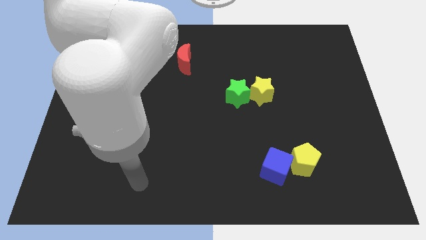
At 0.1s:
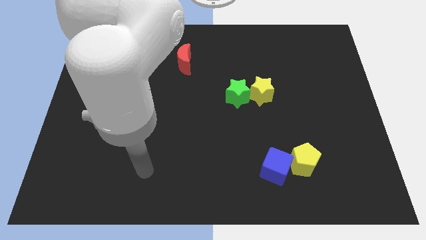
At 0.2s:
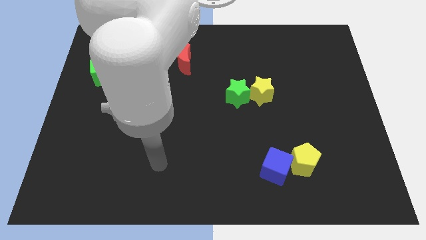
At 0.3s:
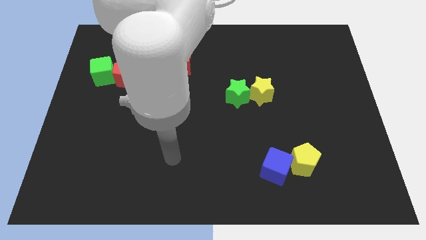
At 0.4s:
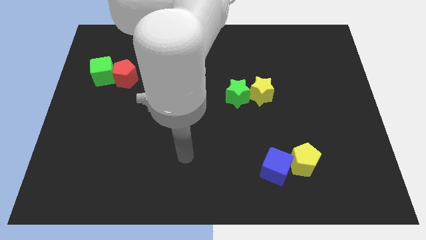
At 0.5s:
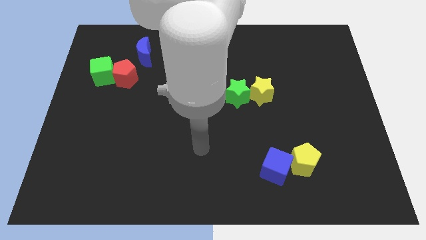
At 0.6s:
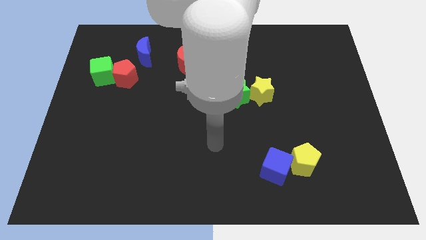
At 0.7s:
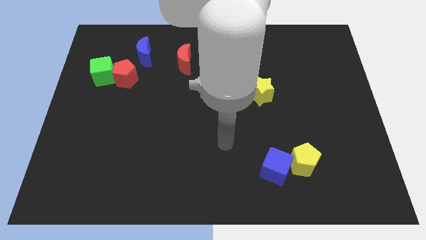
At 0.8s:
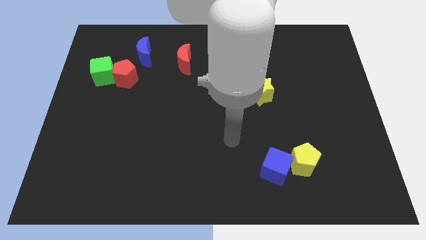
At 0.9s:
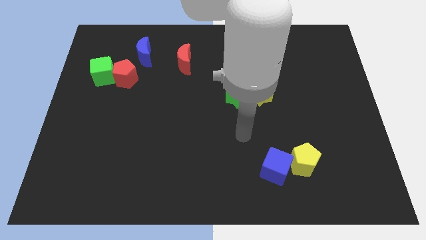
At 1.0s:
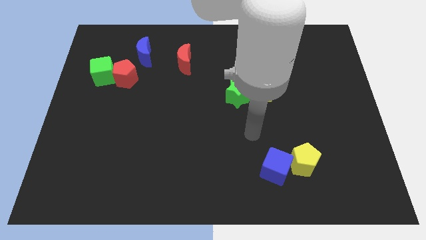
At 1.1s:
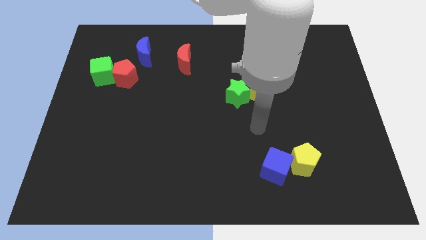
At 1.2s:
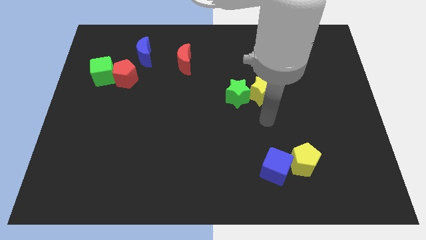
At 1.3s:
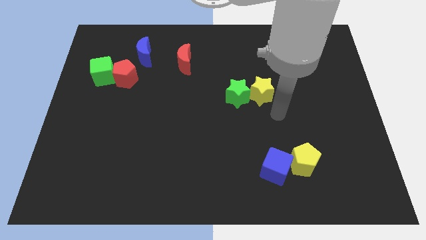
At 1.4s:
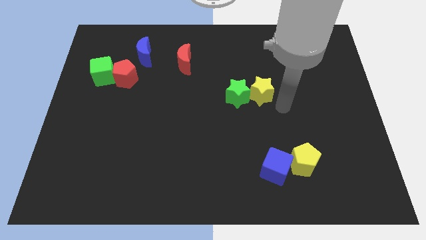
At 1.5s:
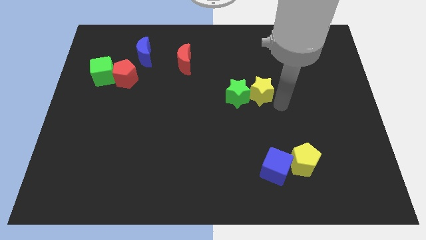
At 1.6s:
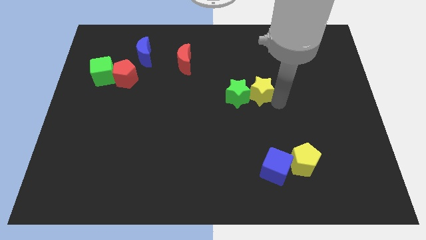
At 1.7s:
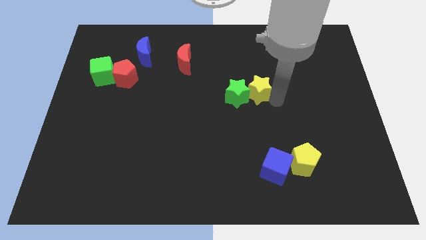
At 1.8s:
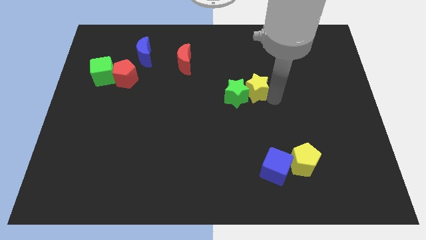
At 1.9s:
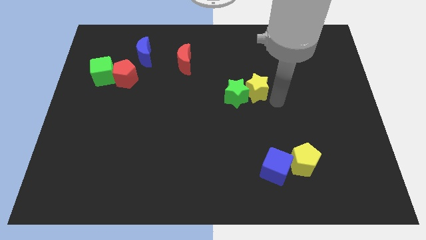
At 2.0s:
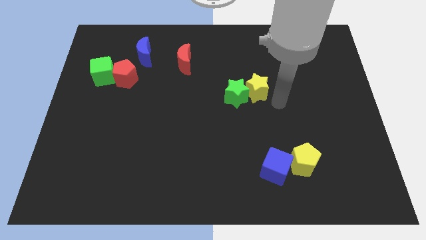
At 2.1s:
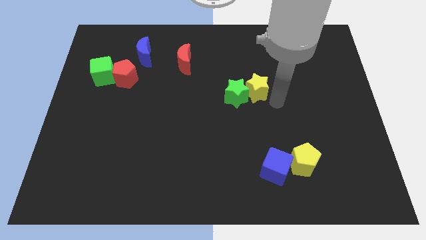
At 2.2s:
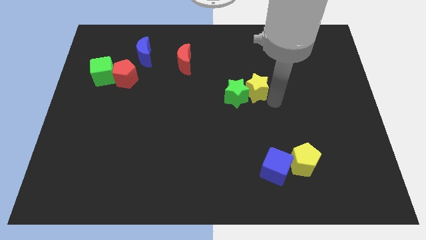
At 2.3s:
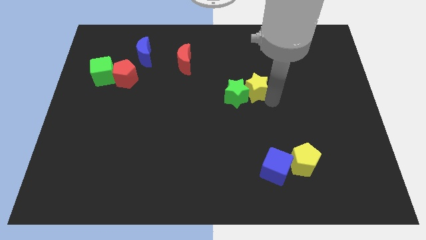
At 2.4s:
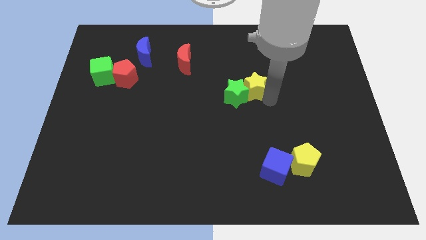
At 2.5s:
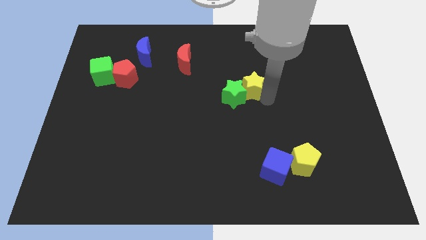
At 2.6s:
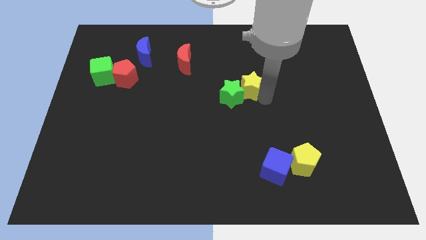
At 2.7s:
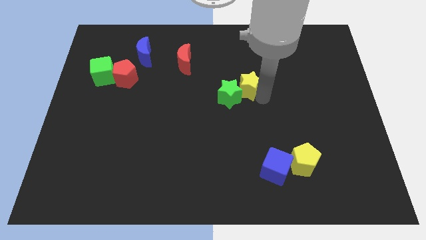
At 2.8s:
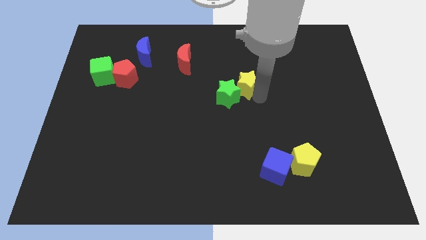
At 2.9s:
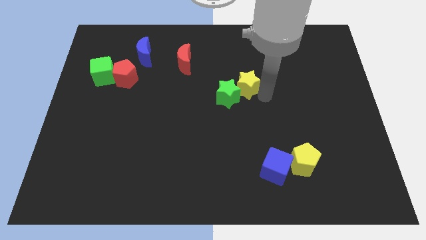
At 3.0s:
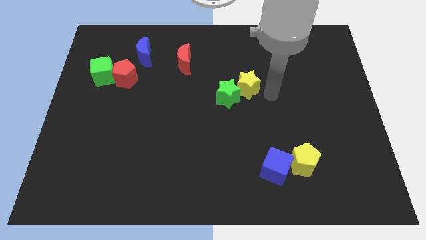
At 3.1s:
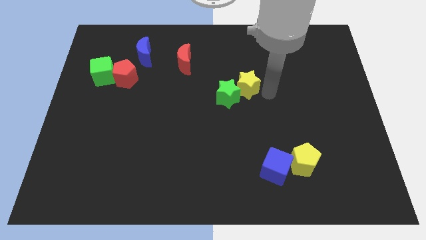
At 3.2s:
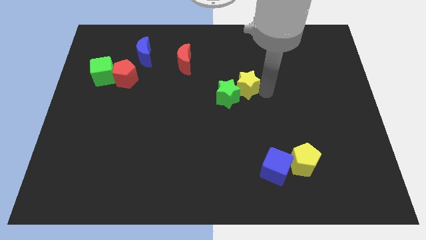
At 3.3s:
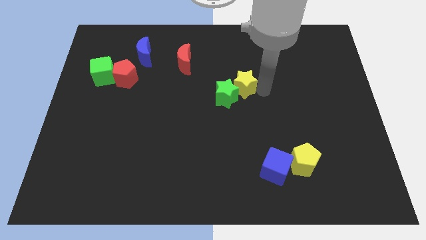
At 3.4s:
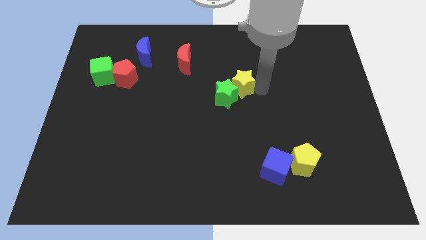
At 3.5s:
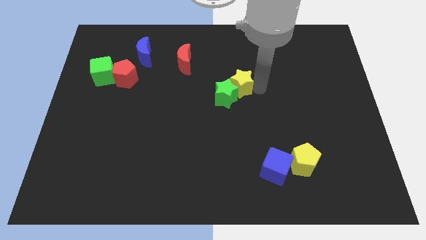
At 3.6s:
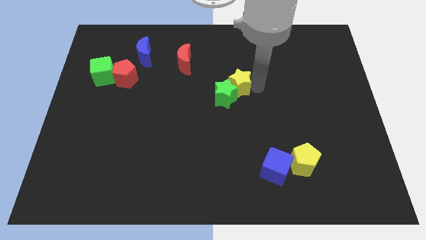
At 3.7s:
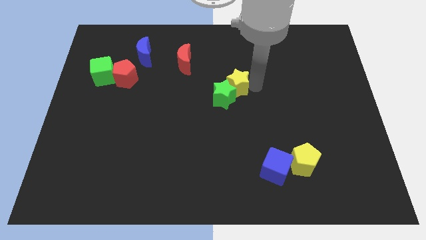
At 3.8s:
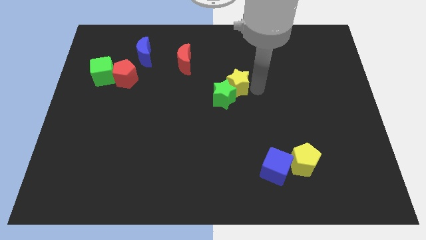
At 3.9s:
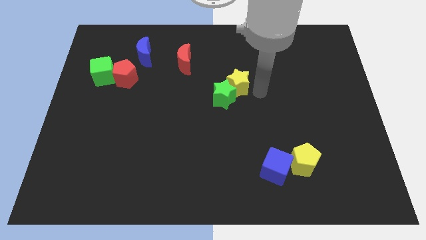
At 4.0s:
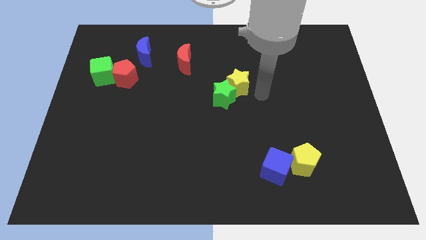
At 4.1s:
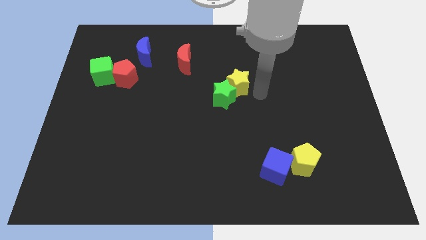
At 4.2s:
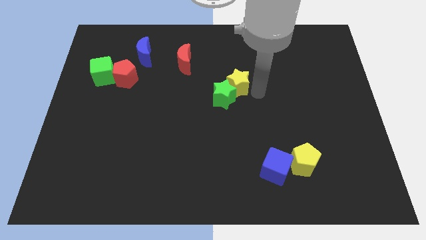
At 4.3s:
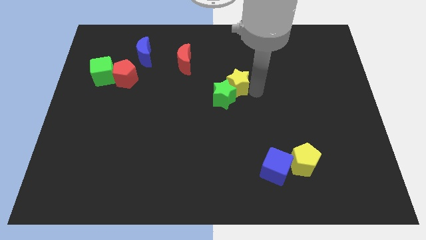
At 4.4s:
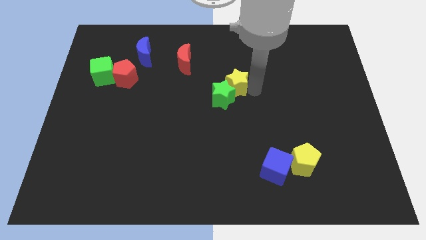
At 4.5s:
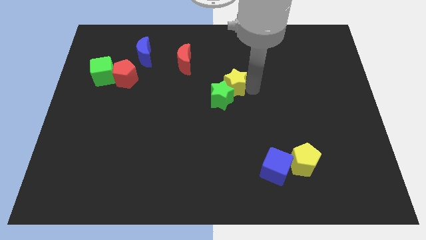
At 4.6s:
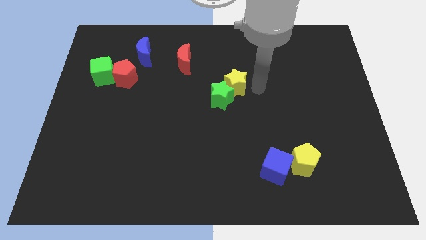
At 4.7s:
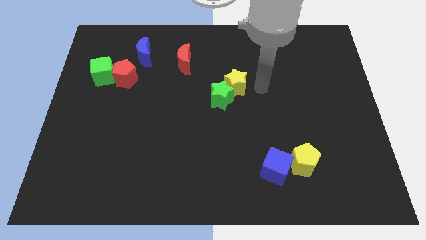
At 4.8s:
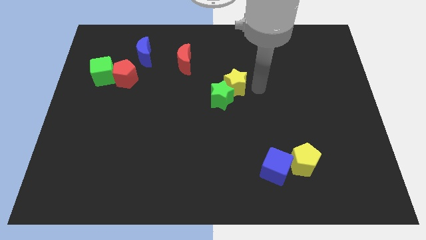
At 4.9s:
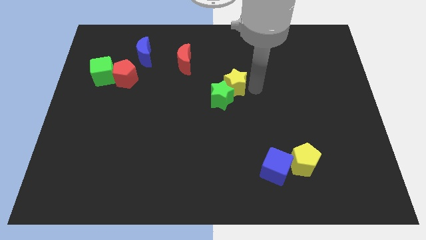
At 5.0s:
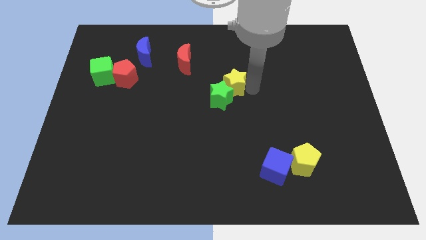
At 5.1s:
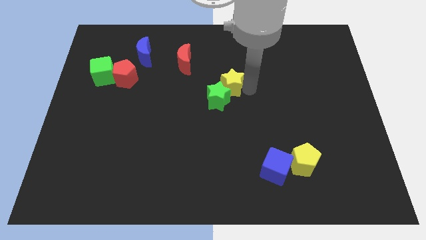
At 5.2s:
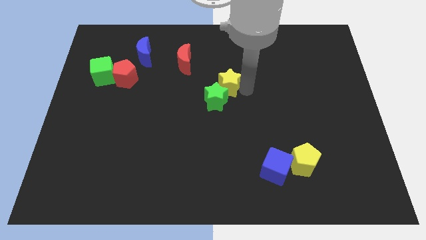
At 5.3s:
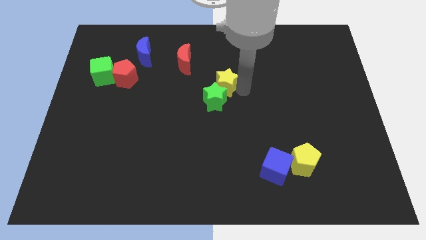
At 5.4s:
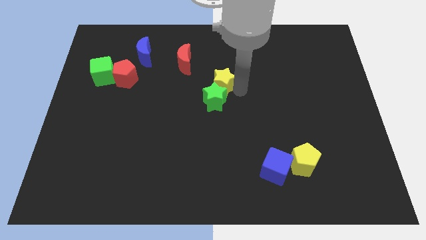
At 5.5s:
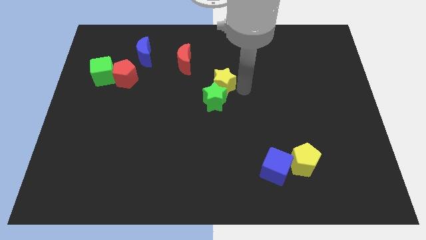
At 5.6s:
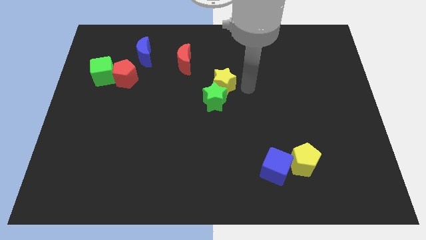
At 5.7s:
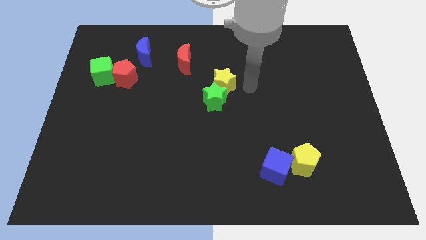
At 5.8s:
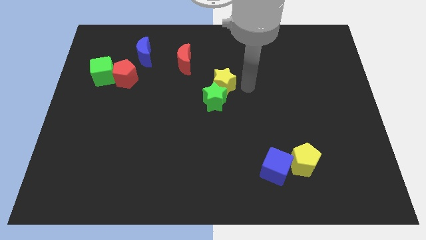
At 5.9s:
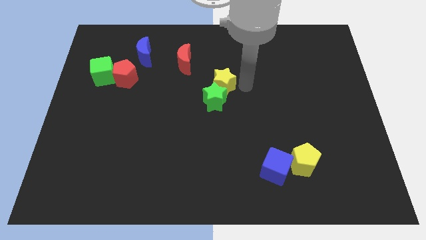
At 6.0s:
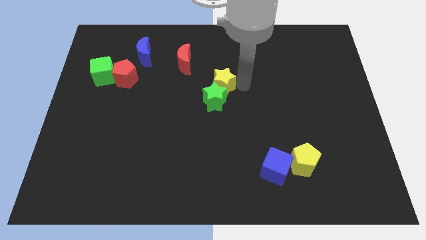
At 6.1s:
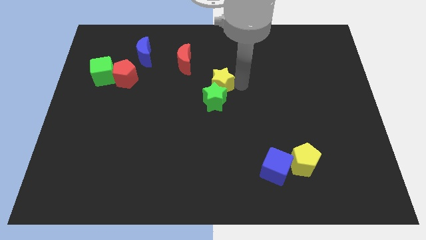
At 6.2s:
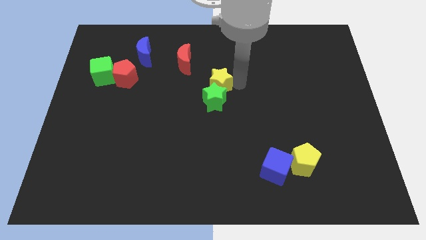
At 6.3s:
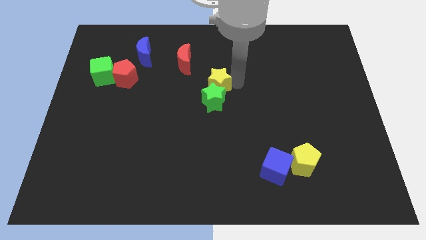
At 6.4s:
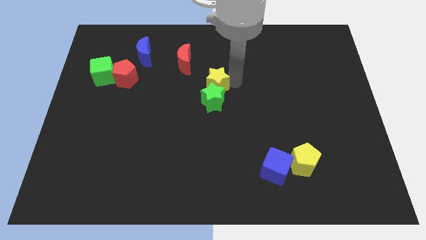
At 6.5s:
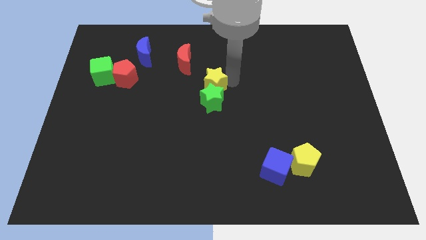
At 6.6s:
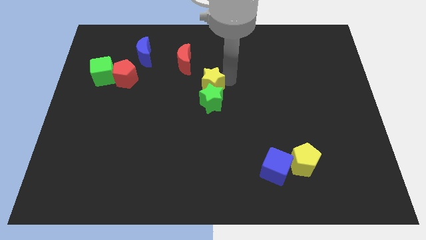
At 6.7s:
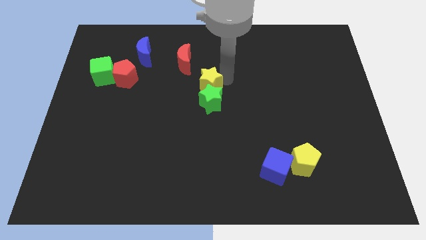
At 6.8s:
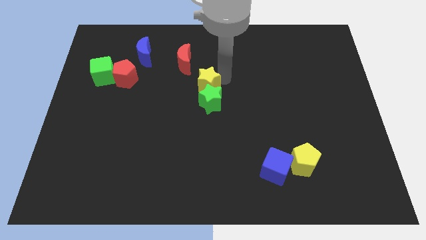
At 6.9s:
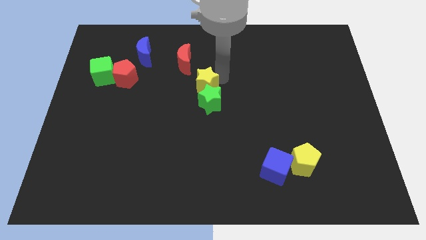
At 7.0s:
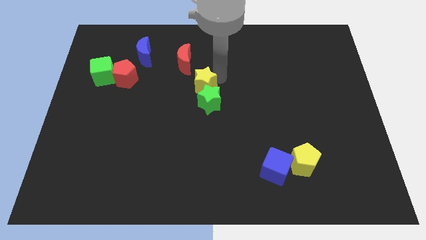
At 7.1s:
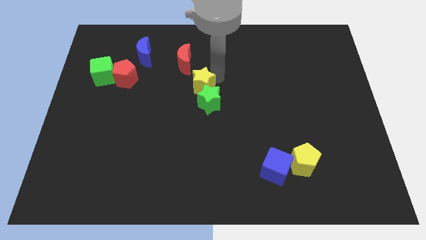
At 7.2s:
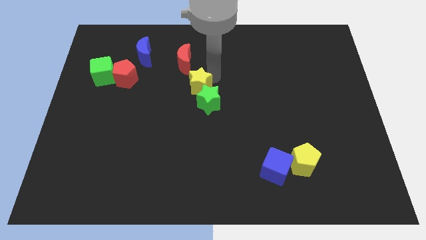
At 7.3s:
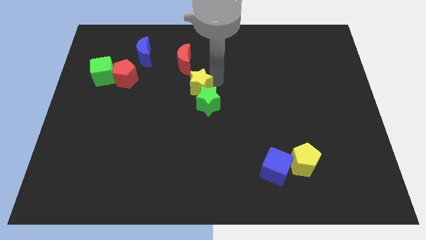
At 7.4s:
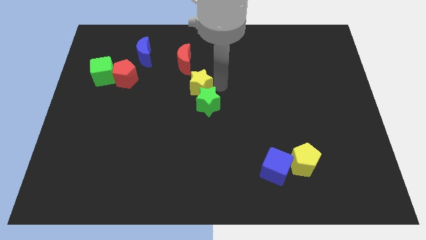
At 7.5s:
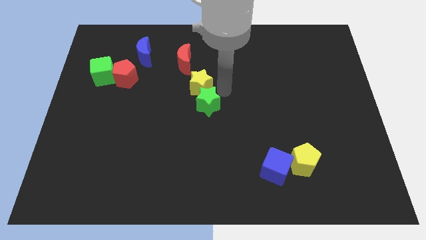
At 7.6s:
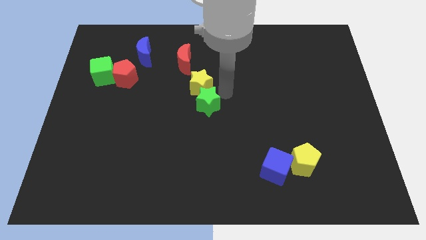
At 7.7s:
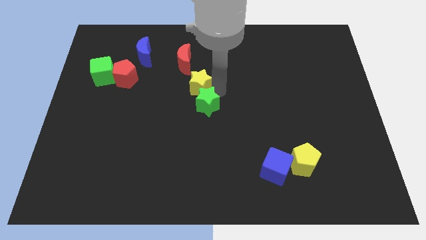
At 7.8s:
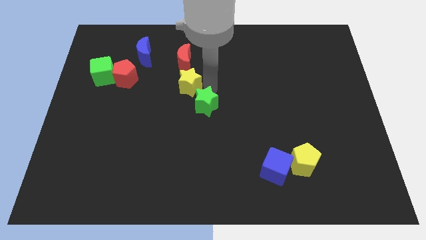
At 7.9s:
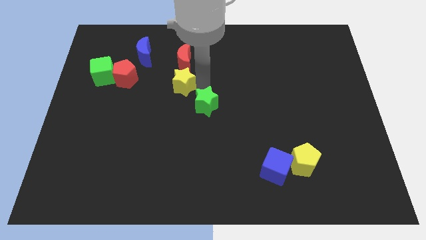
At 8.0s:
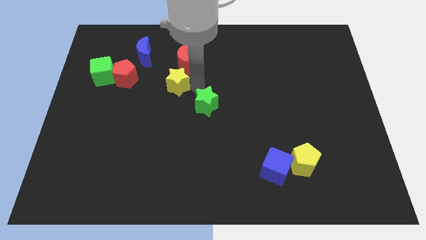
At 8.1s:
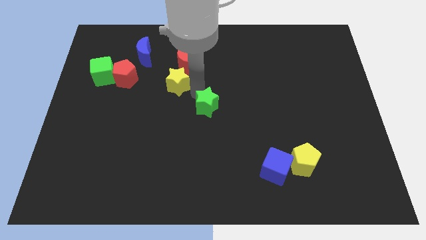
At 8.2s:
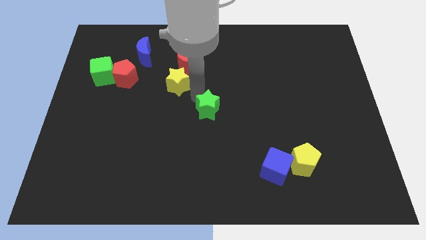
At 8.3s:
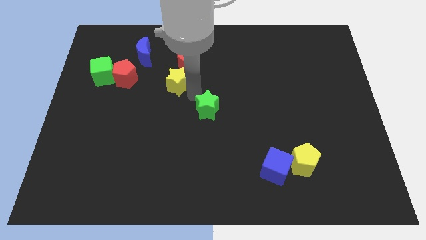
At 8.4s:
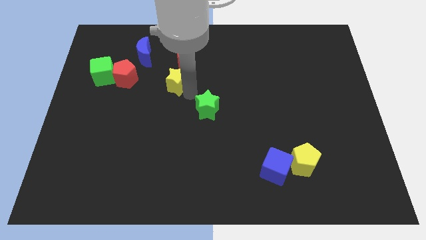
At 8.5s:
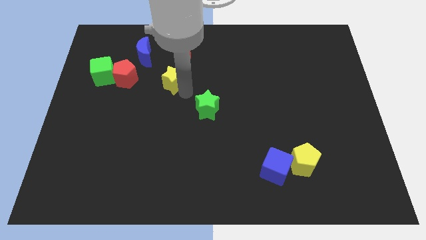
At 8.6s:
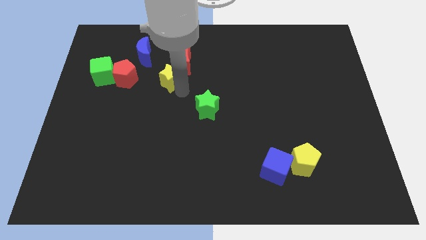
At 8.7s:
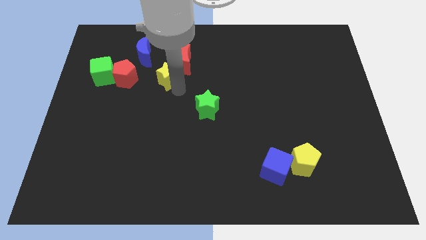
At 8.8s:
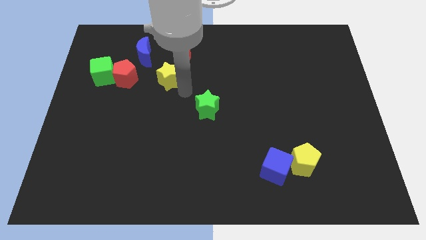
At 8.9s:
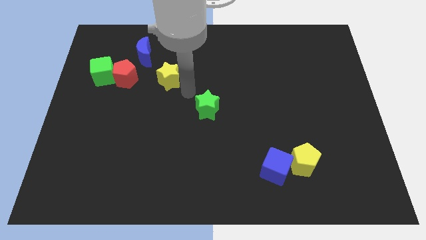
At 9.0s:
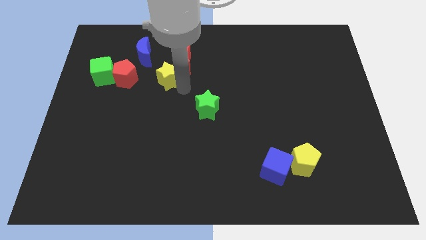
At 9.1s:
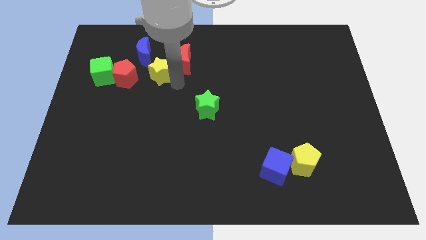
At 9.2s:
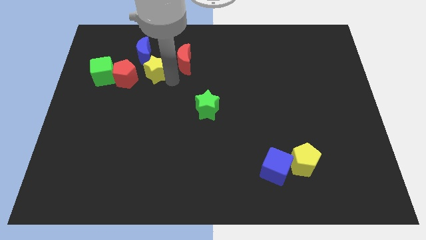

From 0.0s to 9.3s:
put the yellow star diagonally up and to the right of the red pentagon
